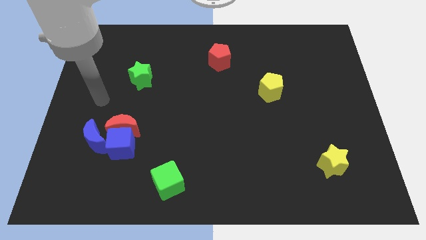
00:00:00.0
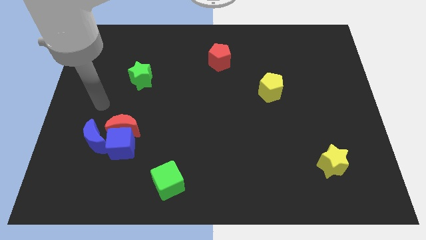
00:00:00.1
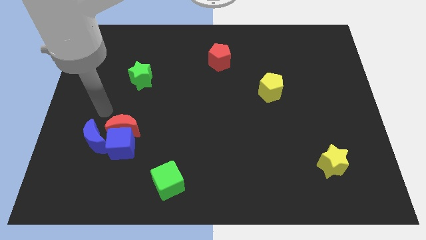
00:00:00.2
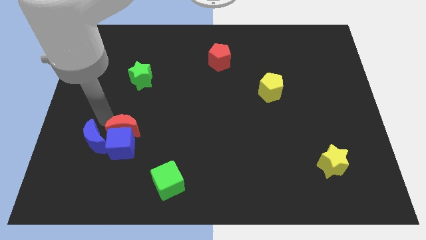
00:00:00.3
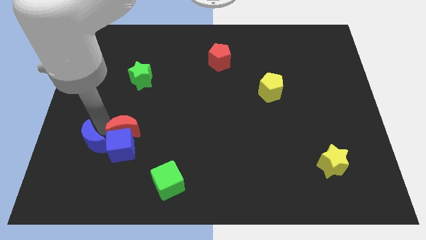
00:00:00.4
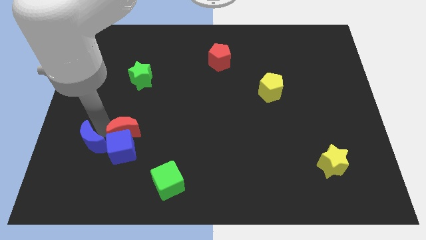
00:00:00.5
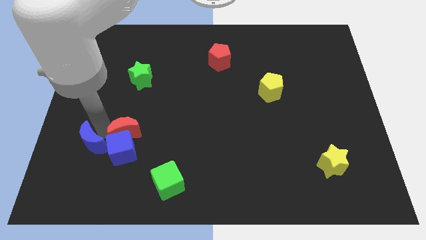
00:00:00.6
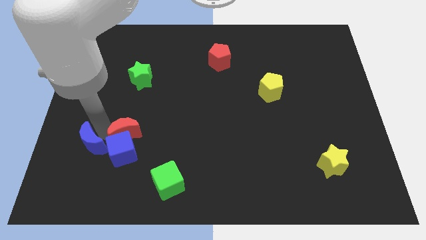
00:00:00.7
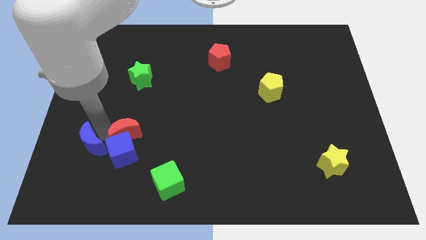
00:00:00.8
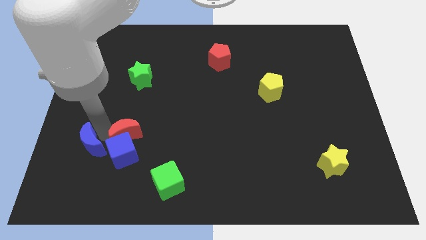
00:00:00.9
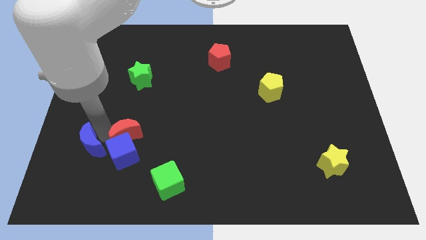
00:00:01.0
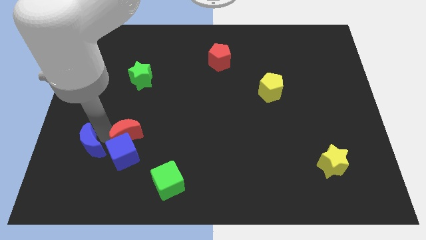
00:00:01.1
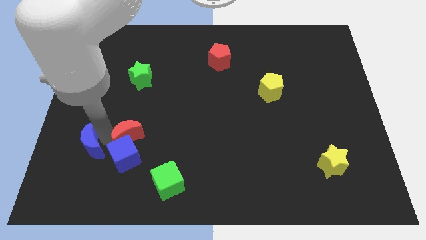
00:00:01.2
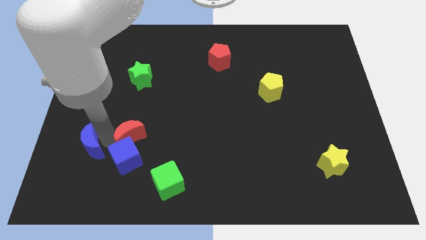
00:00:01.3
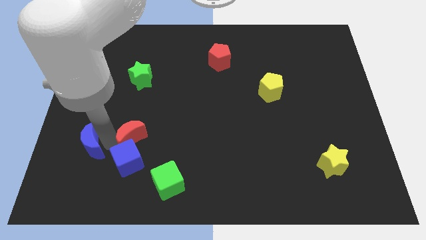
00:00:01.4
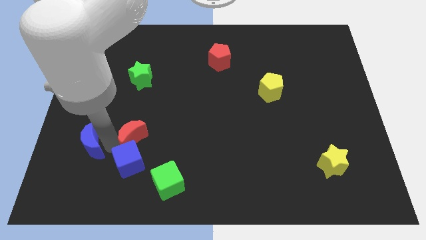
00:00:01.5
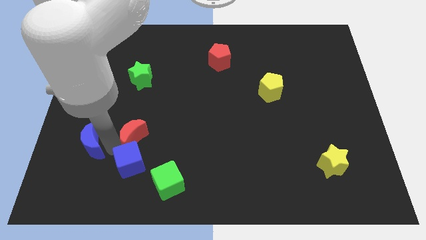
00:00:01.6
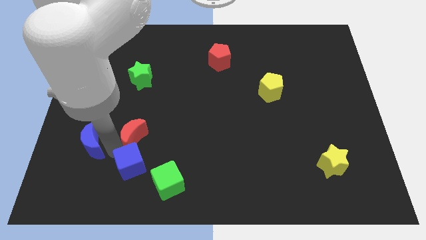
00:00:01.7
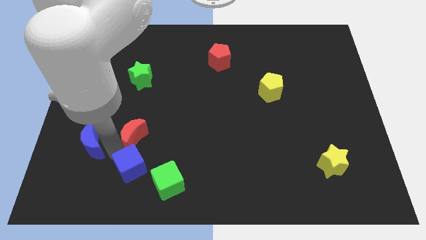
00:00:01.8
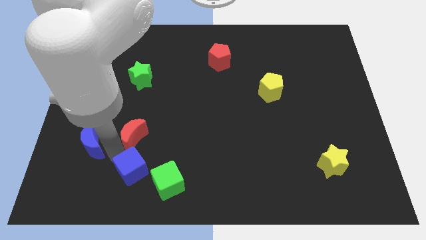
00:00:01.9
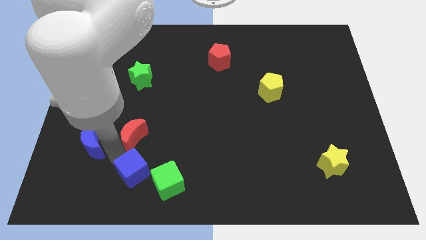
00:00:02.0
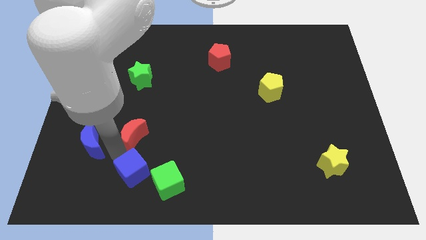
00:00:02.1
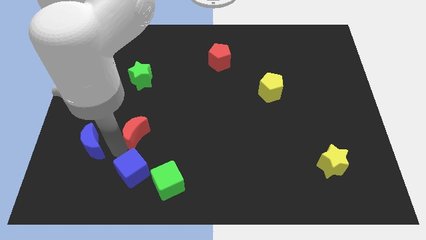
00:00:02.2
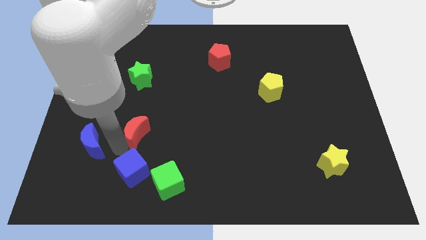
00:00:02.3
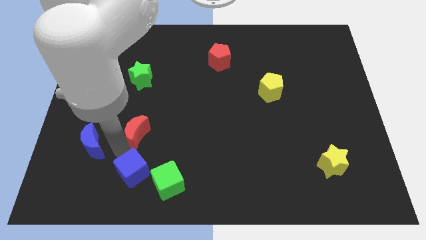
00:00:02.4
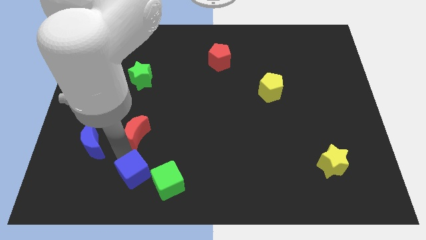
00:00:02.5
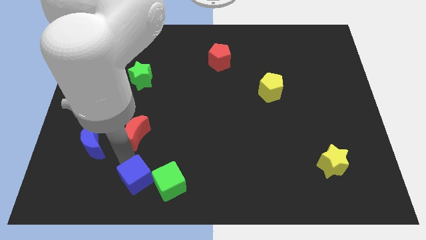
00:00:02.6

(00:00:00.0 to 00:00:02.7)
pull the blue cube apart from the red moon and blue moon

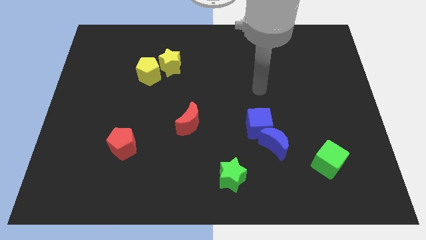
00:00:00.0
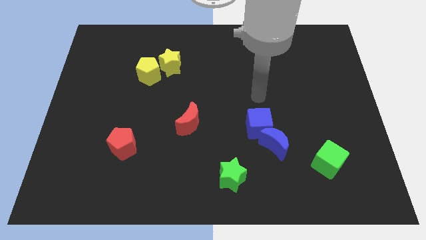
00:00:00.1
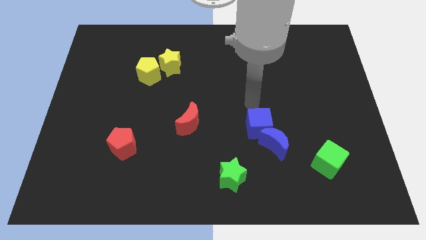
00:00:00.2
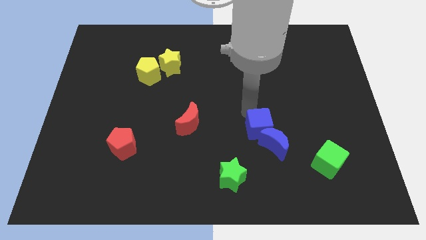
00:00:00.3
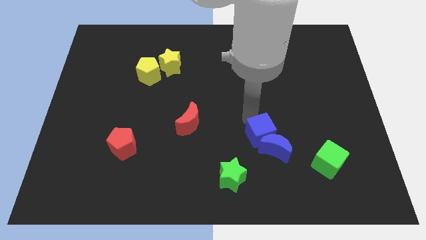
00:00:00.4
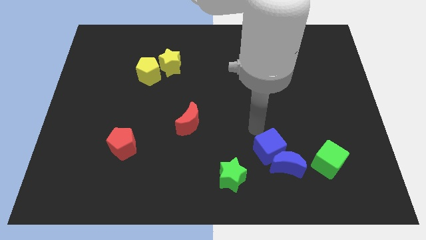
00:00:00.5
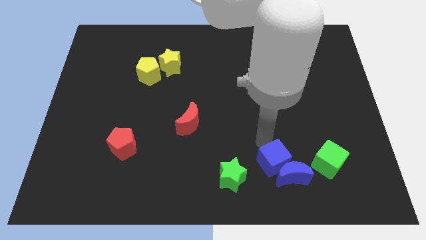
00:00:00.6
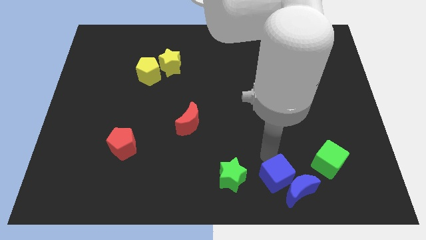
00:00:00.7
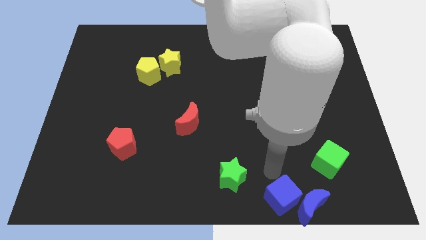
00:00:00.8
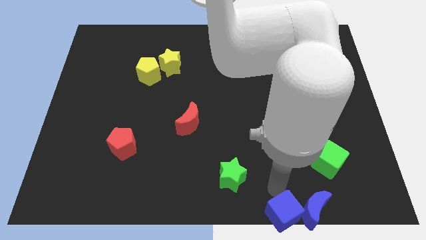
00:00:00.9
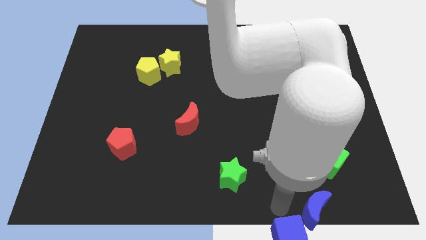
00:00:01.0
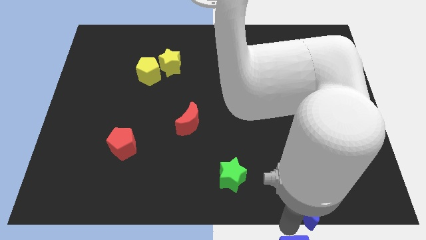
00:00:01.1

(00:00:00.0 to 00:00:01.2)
move the blue moon away from the blue cube

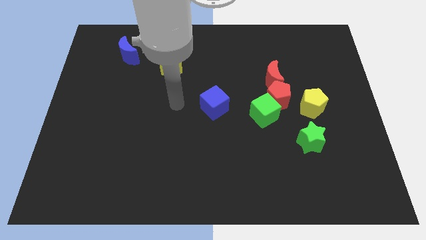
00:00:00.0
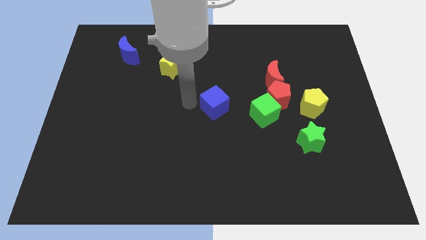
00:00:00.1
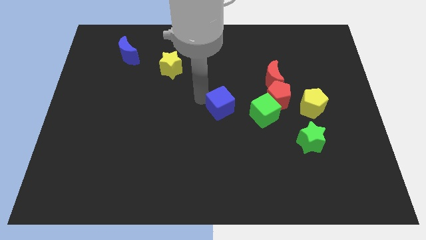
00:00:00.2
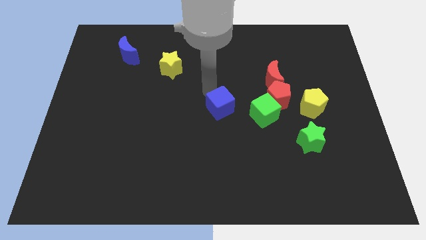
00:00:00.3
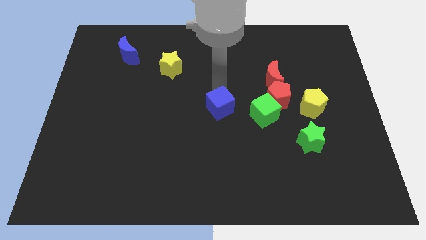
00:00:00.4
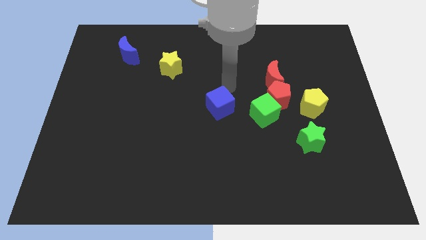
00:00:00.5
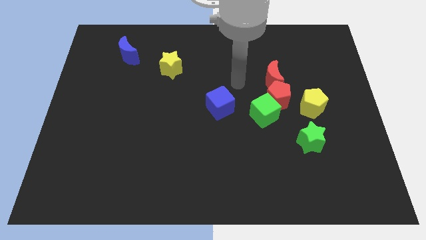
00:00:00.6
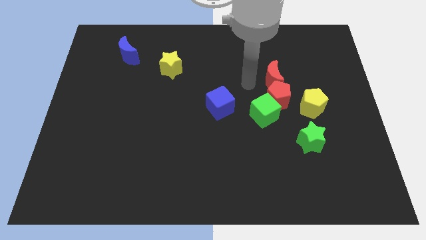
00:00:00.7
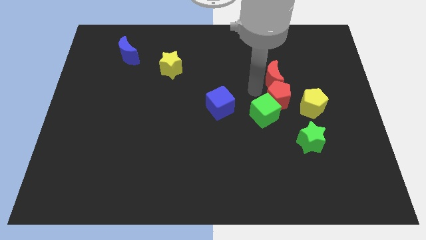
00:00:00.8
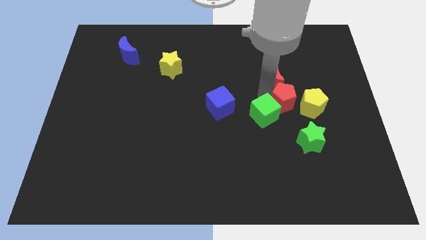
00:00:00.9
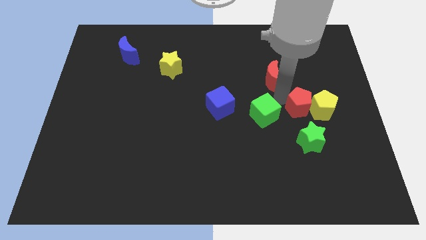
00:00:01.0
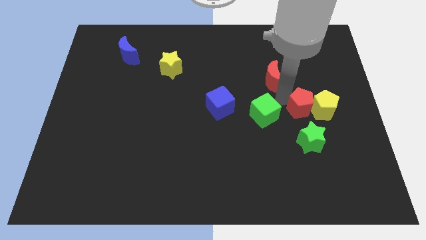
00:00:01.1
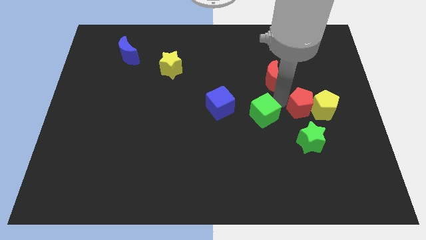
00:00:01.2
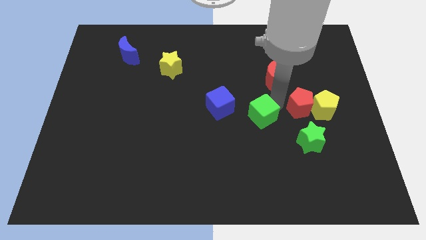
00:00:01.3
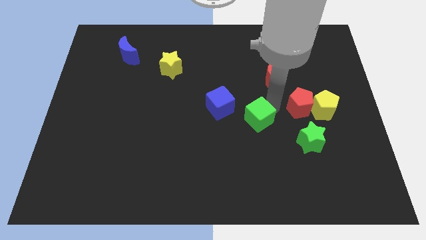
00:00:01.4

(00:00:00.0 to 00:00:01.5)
pull the green cube apart from the red pentagon

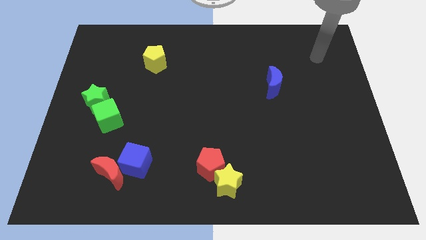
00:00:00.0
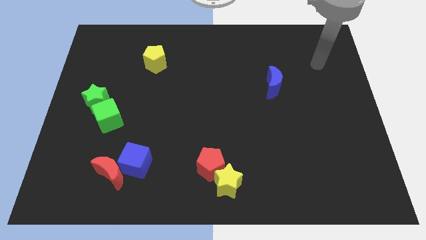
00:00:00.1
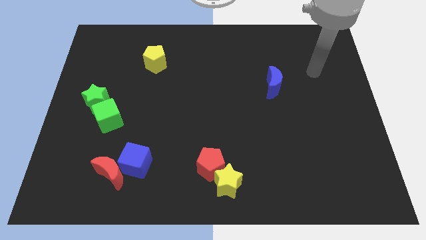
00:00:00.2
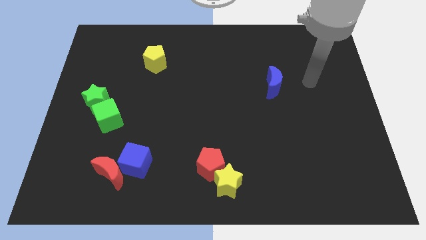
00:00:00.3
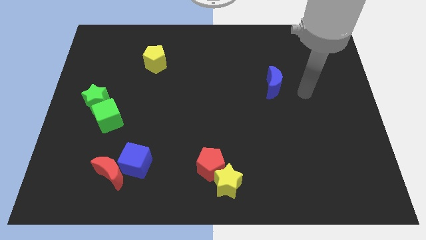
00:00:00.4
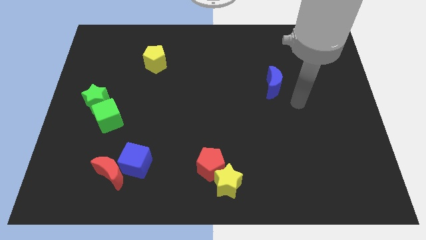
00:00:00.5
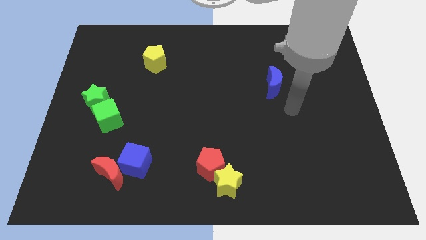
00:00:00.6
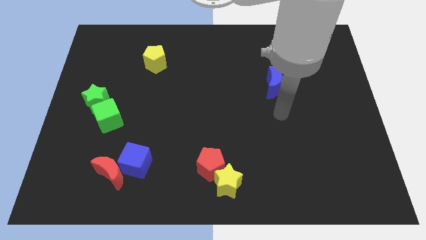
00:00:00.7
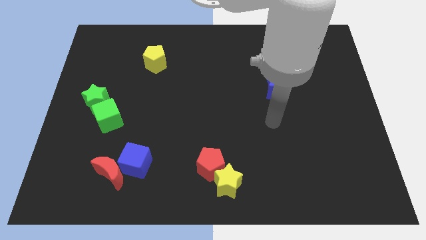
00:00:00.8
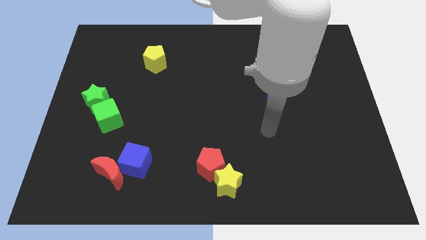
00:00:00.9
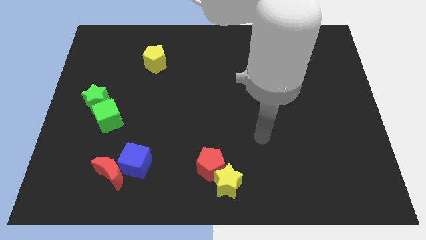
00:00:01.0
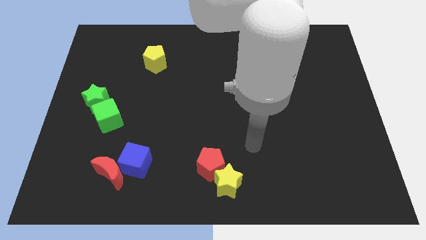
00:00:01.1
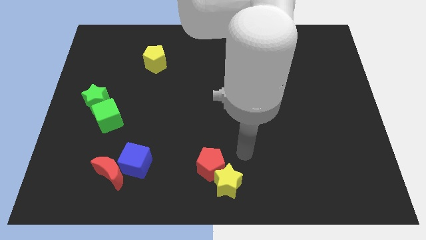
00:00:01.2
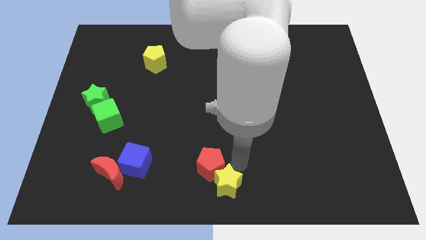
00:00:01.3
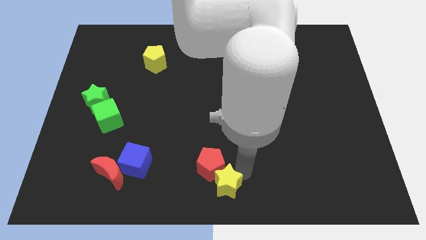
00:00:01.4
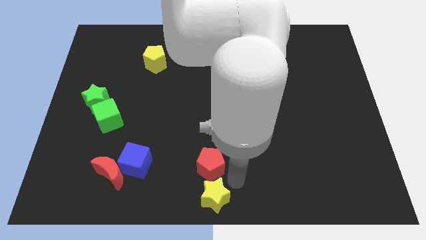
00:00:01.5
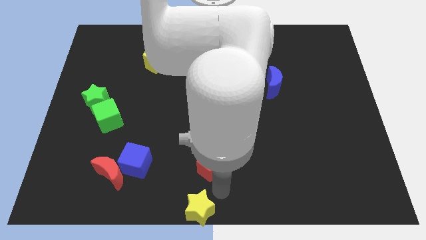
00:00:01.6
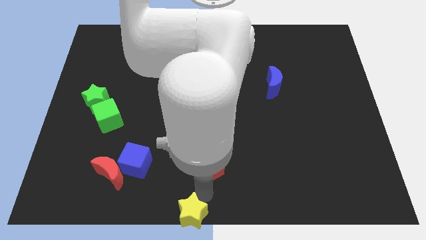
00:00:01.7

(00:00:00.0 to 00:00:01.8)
pull the red pentagon apart from the yellow star

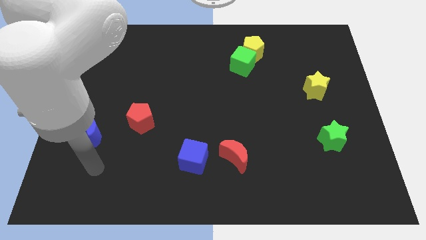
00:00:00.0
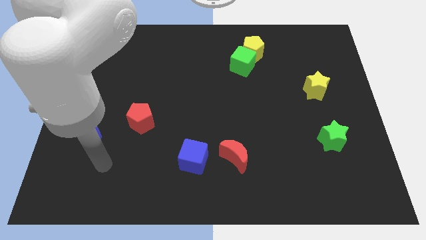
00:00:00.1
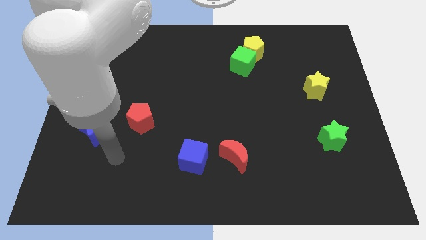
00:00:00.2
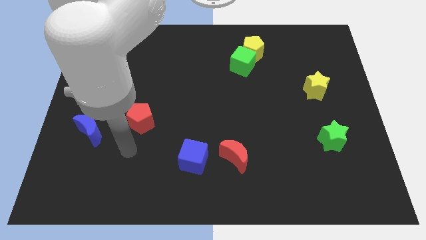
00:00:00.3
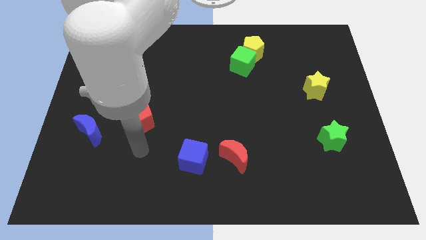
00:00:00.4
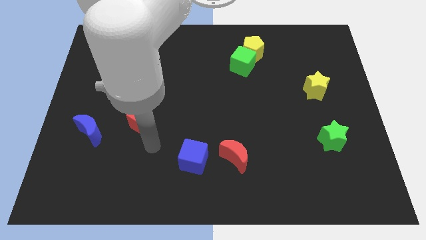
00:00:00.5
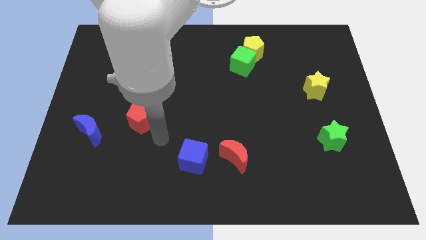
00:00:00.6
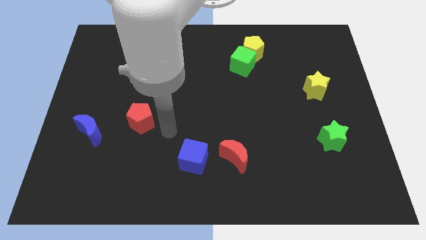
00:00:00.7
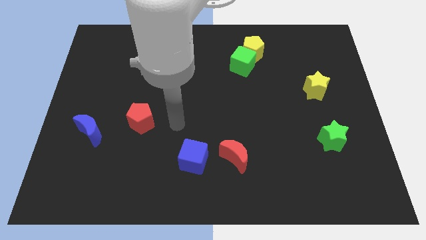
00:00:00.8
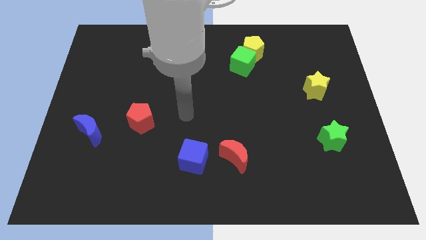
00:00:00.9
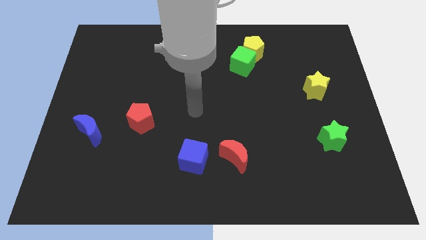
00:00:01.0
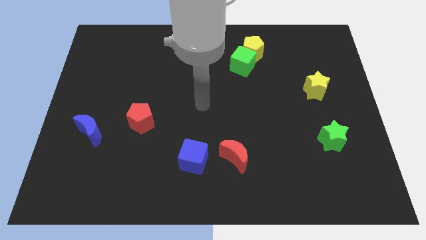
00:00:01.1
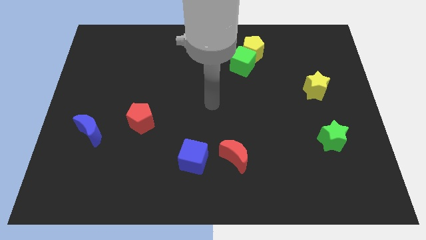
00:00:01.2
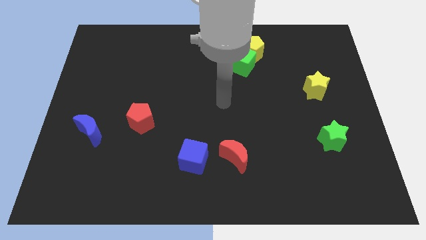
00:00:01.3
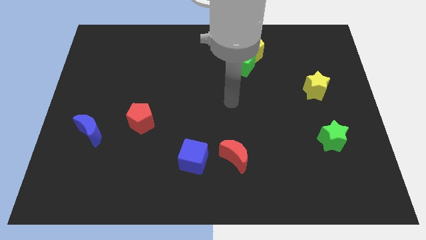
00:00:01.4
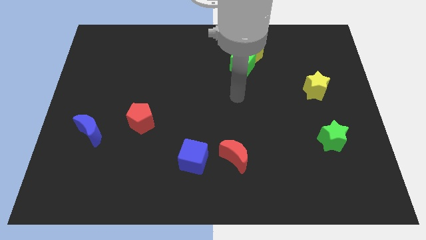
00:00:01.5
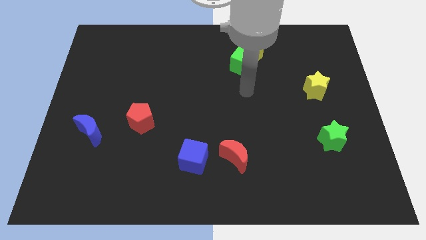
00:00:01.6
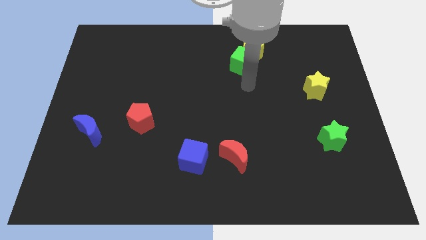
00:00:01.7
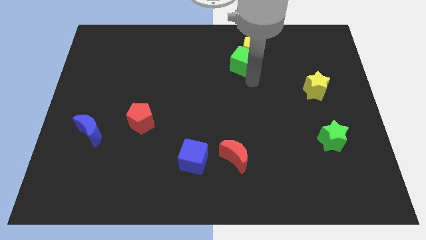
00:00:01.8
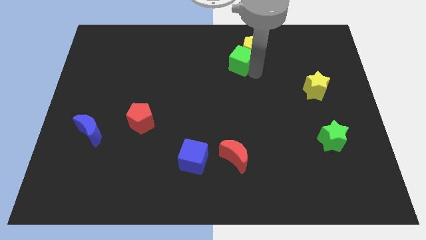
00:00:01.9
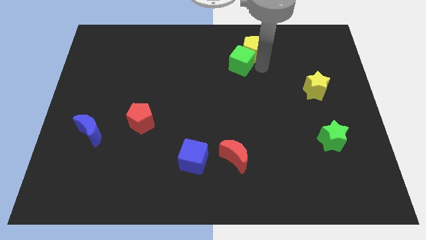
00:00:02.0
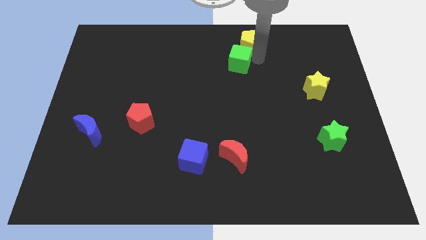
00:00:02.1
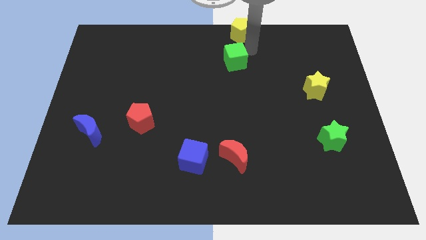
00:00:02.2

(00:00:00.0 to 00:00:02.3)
separate the green cube from the yellow pentagon
